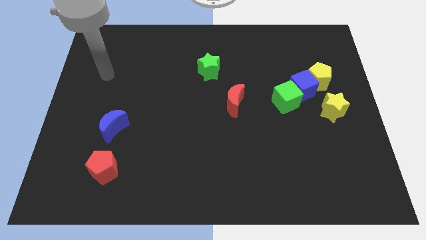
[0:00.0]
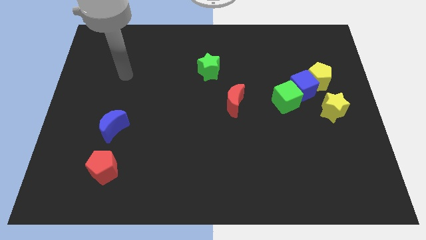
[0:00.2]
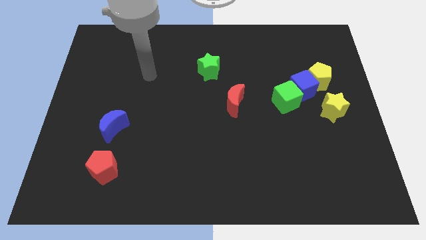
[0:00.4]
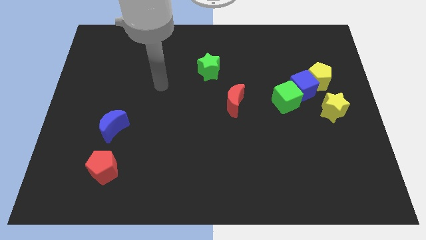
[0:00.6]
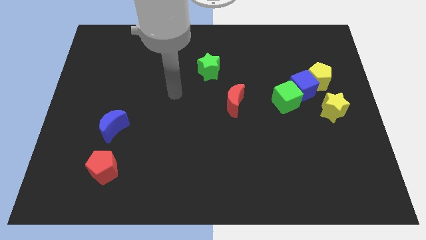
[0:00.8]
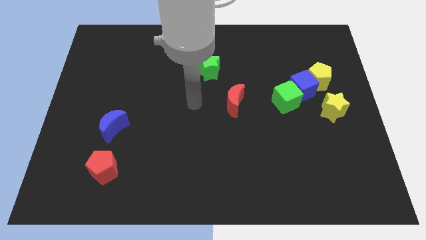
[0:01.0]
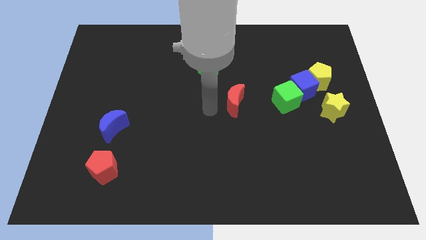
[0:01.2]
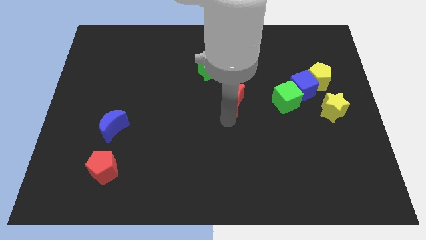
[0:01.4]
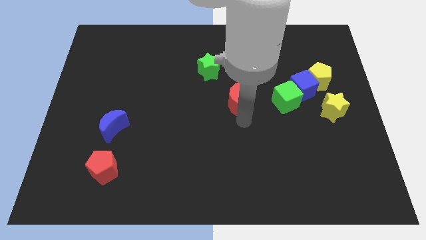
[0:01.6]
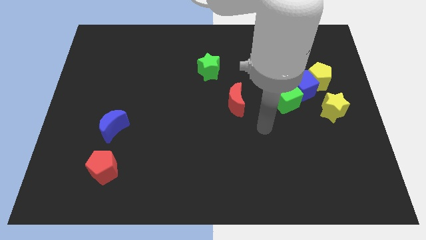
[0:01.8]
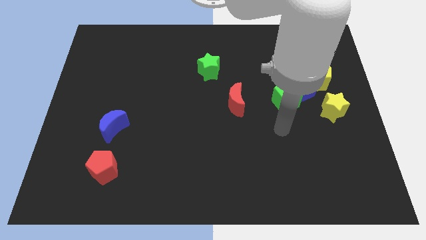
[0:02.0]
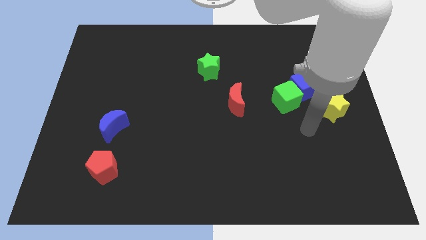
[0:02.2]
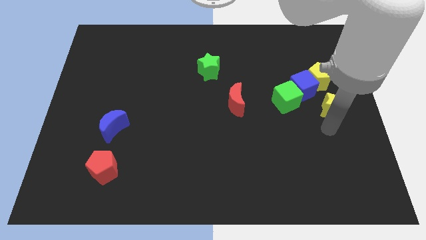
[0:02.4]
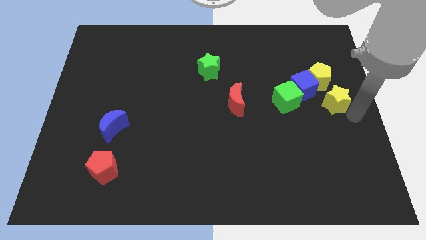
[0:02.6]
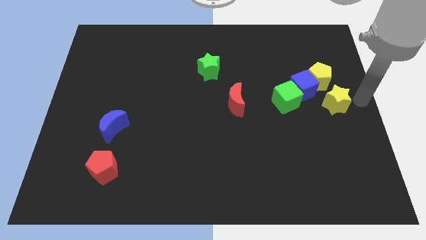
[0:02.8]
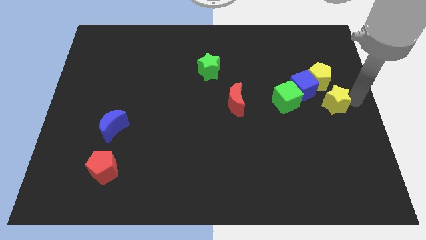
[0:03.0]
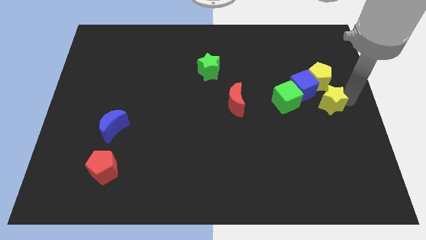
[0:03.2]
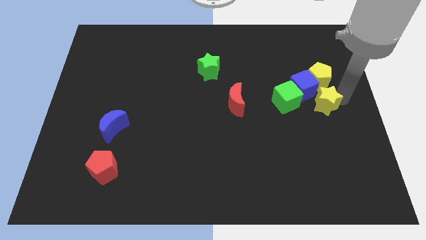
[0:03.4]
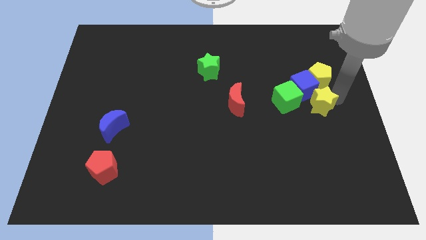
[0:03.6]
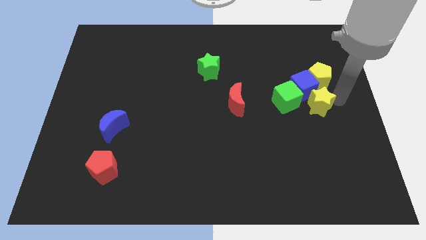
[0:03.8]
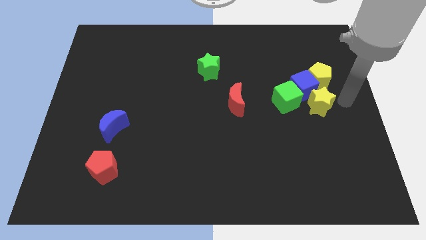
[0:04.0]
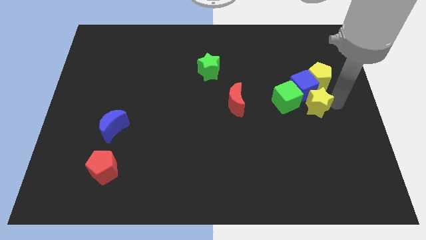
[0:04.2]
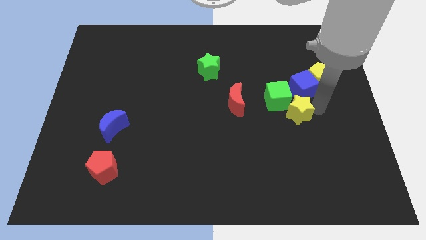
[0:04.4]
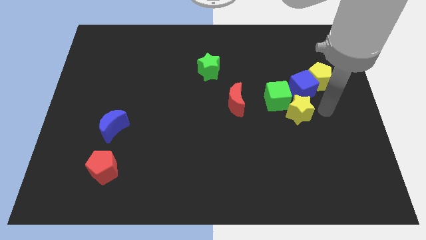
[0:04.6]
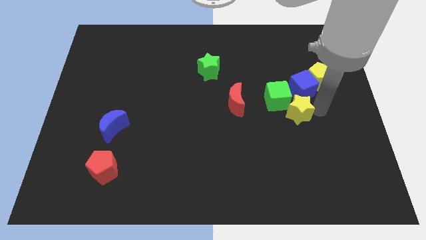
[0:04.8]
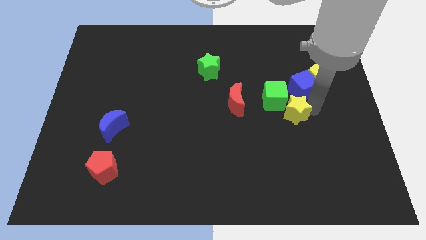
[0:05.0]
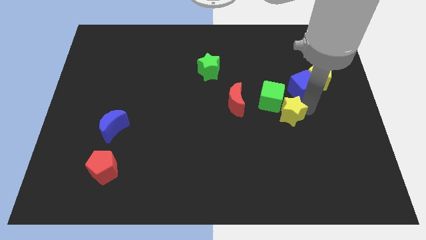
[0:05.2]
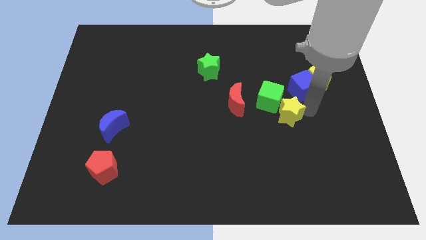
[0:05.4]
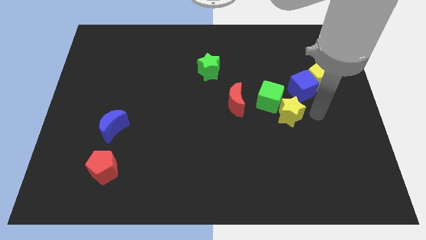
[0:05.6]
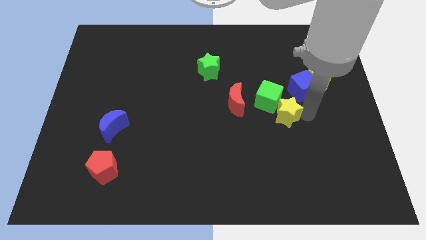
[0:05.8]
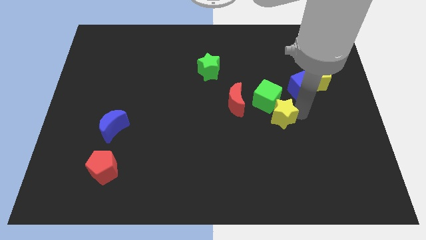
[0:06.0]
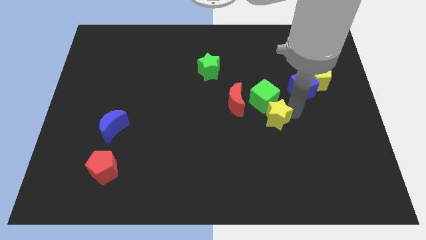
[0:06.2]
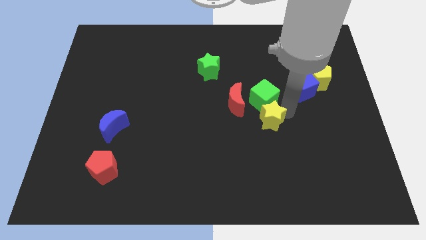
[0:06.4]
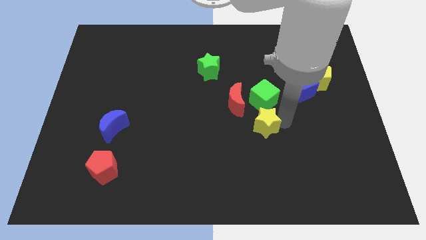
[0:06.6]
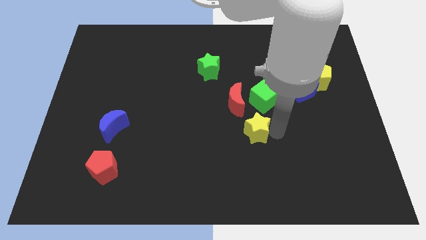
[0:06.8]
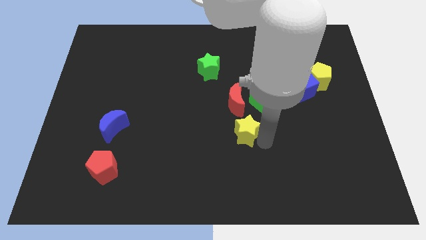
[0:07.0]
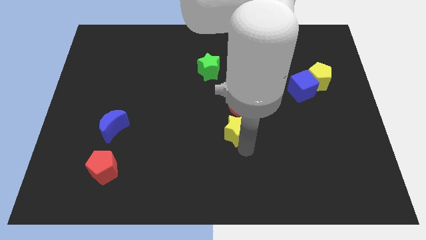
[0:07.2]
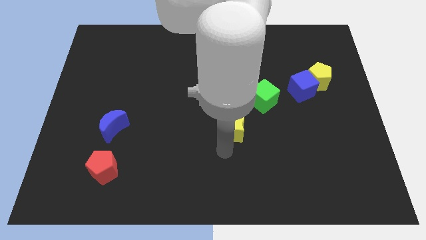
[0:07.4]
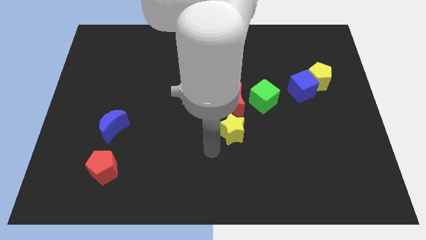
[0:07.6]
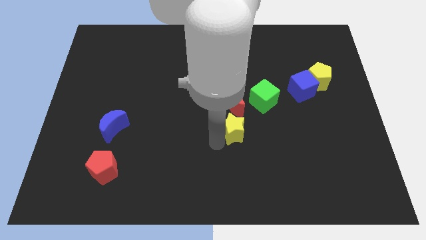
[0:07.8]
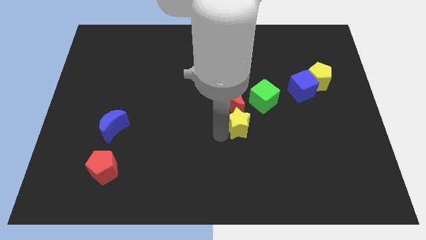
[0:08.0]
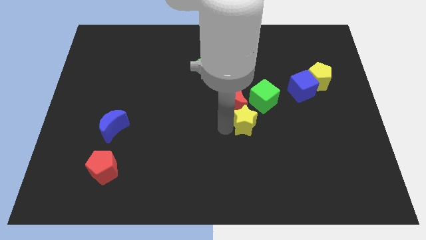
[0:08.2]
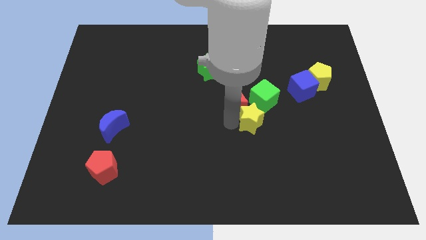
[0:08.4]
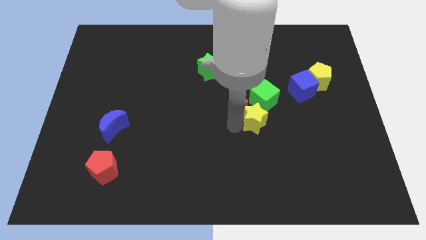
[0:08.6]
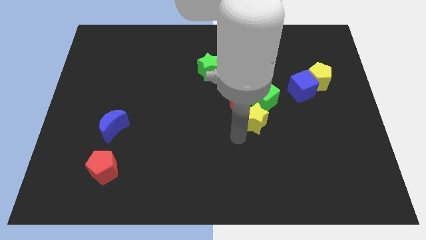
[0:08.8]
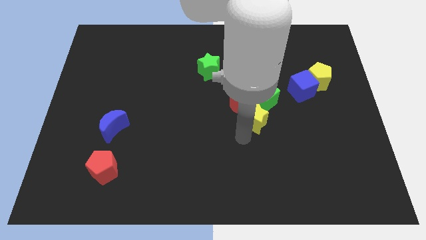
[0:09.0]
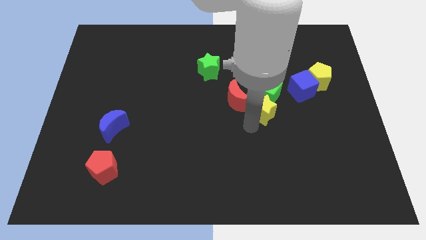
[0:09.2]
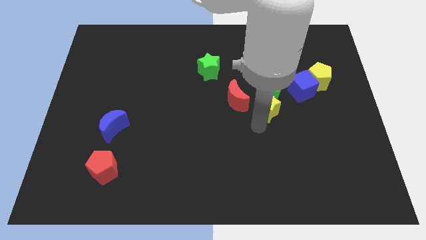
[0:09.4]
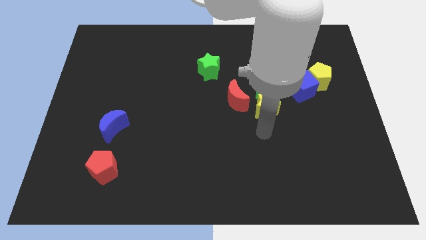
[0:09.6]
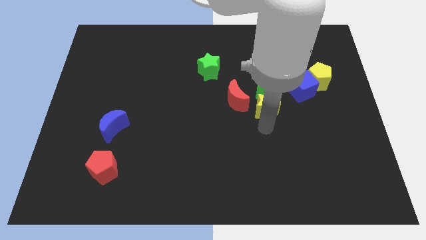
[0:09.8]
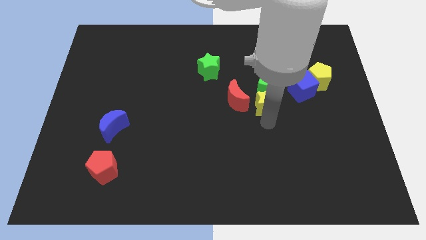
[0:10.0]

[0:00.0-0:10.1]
slightly move the yellow star up and then left

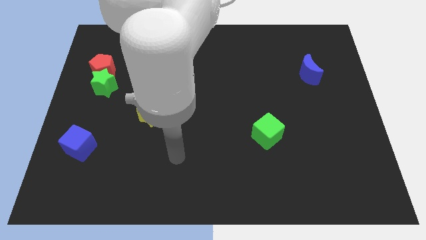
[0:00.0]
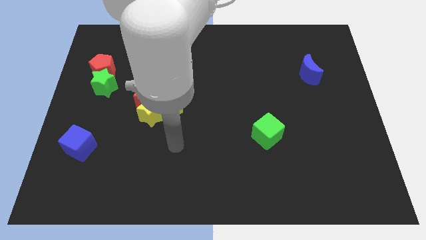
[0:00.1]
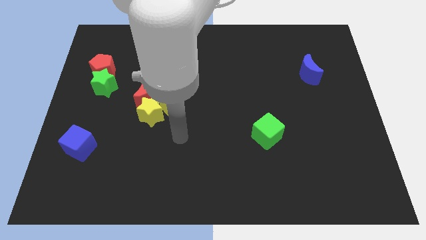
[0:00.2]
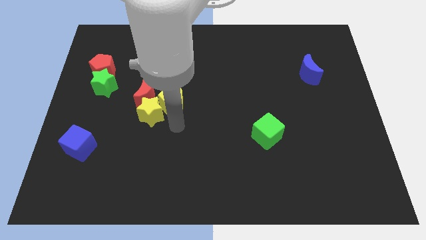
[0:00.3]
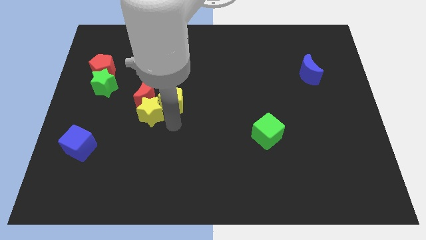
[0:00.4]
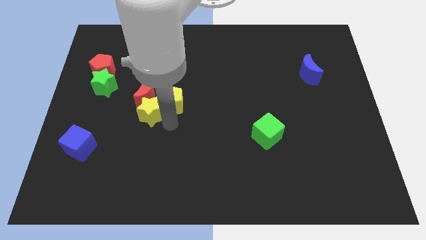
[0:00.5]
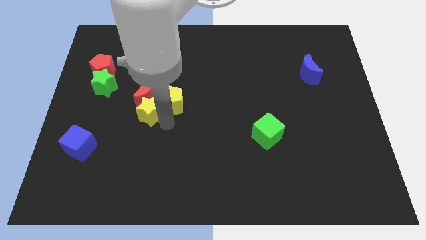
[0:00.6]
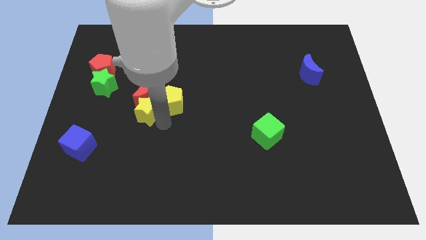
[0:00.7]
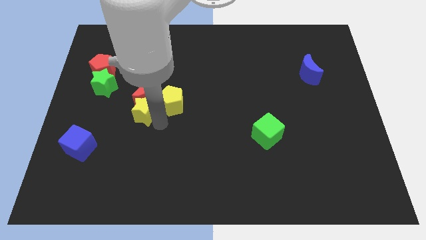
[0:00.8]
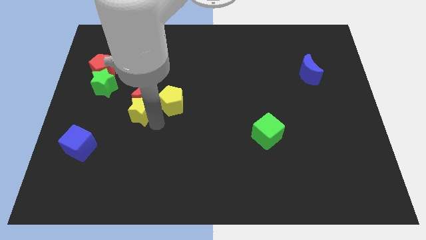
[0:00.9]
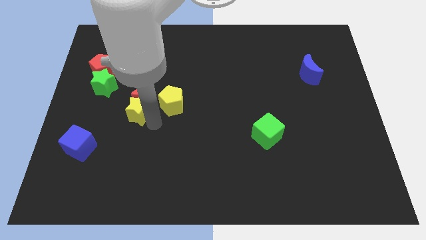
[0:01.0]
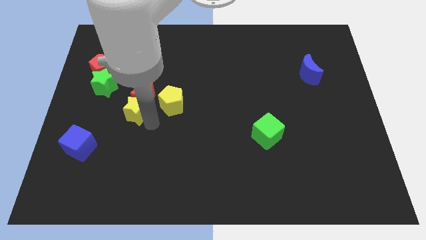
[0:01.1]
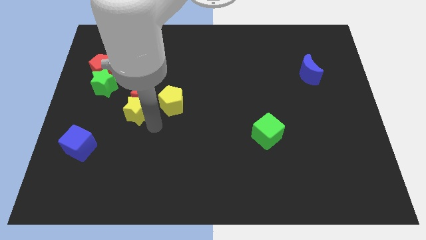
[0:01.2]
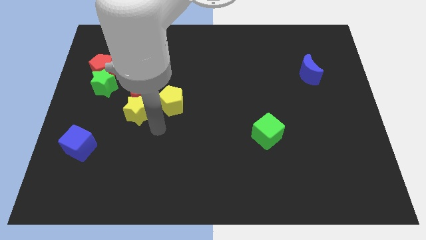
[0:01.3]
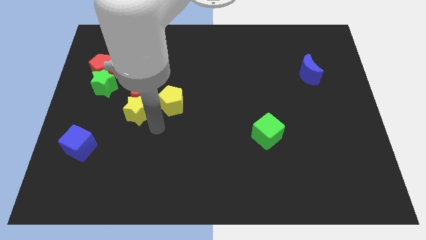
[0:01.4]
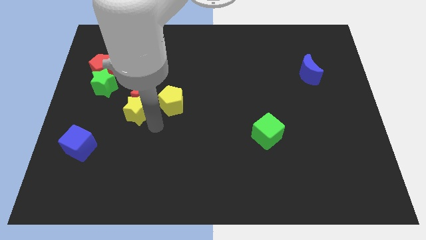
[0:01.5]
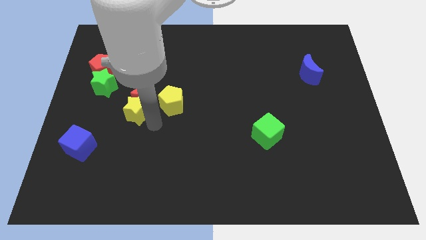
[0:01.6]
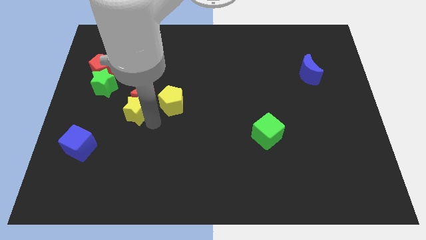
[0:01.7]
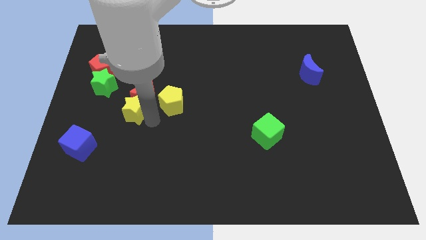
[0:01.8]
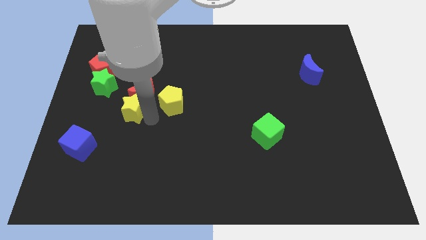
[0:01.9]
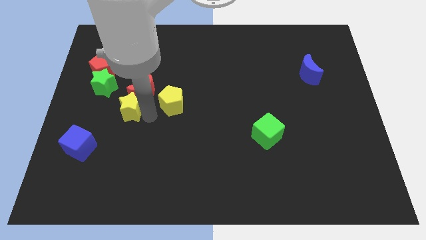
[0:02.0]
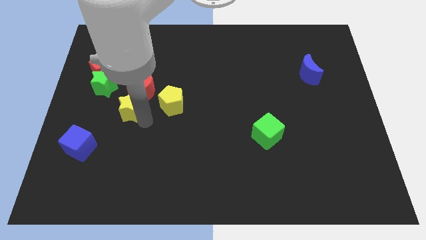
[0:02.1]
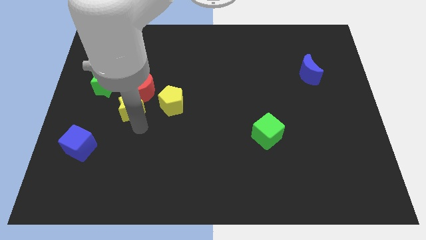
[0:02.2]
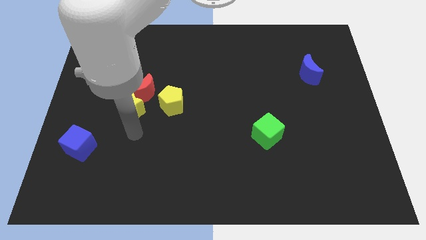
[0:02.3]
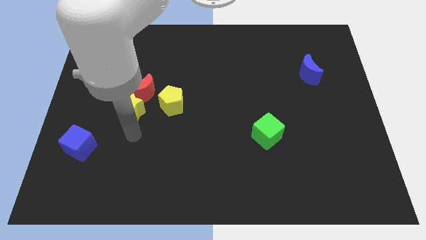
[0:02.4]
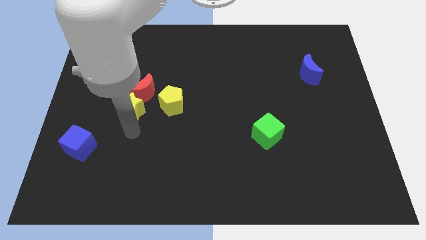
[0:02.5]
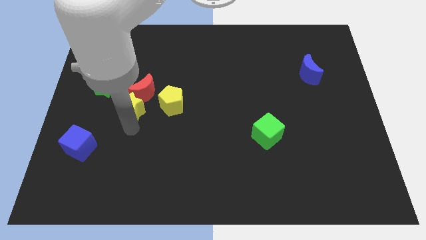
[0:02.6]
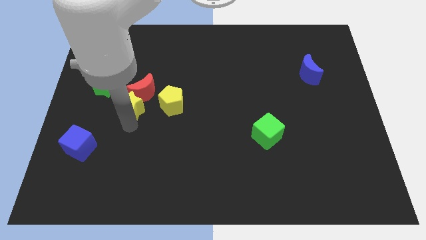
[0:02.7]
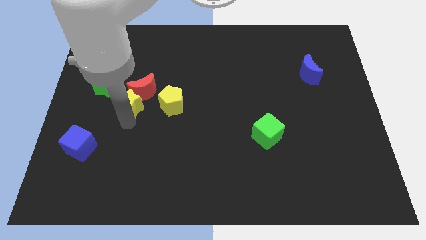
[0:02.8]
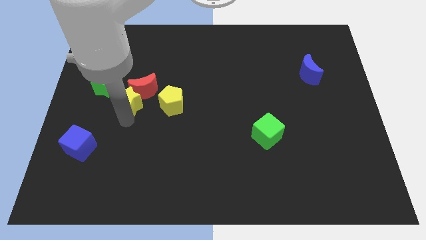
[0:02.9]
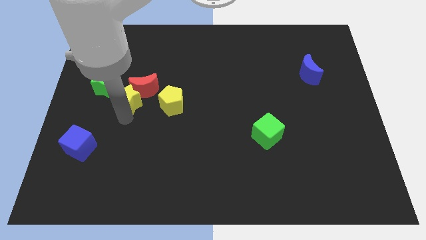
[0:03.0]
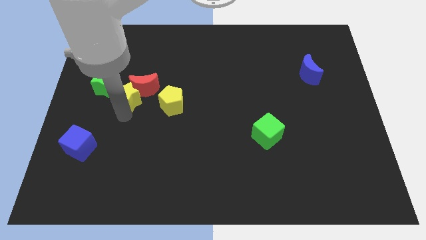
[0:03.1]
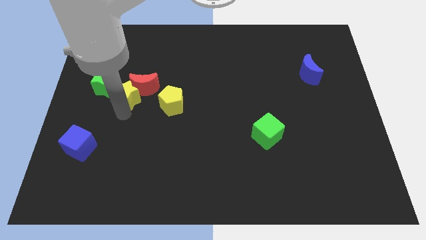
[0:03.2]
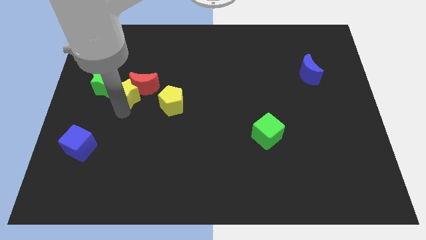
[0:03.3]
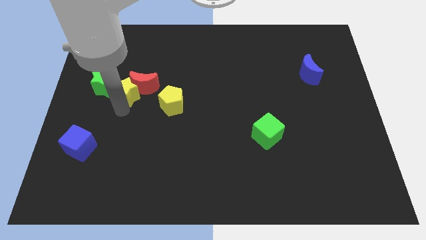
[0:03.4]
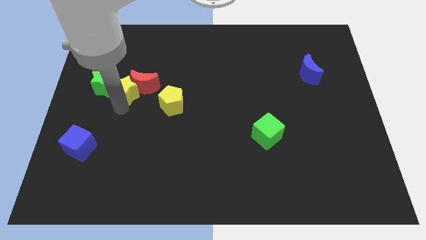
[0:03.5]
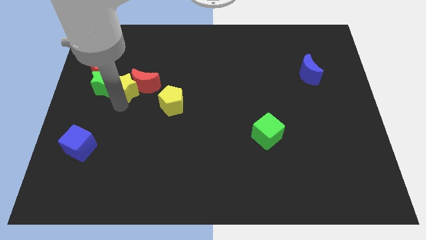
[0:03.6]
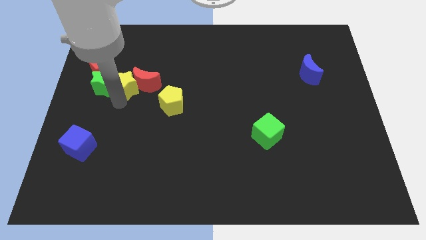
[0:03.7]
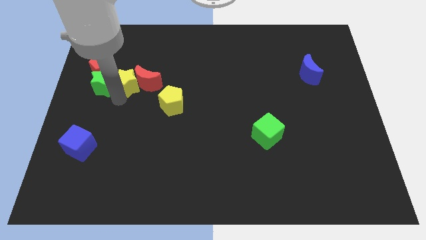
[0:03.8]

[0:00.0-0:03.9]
slide the yellow star up a little bit
